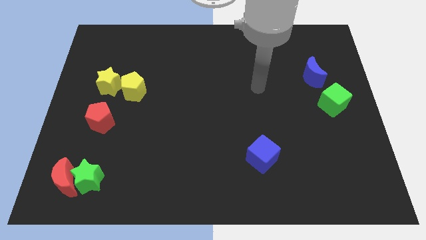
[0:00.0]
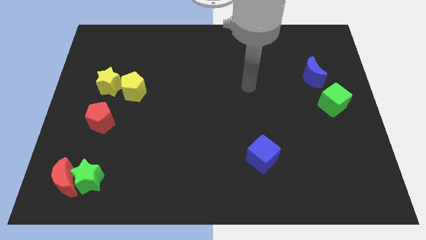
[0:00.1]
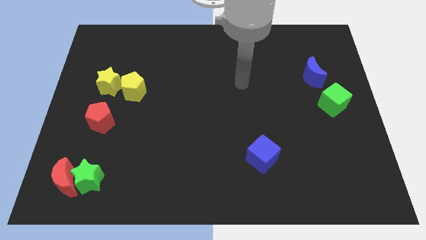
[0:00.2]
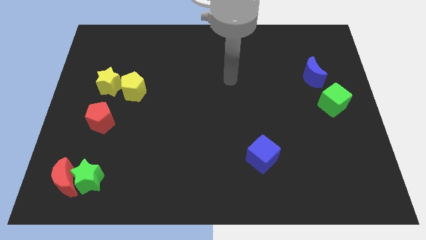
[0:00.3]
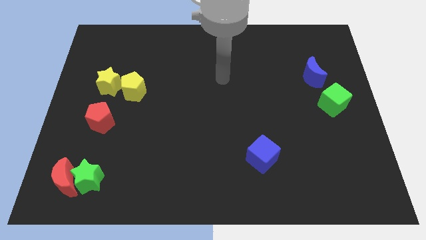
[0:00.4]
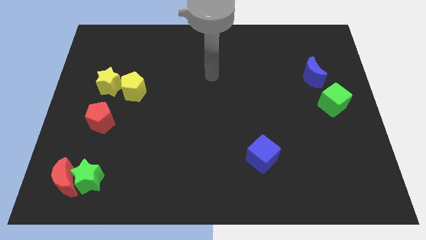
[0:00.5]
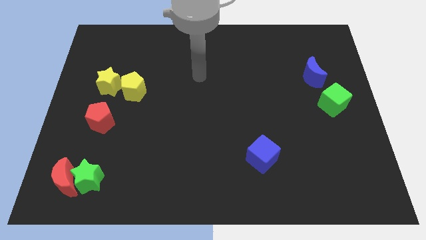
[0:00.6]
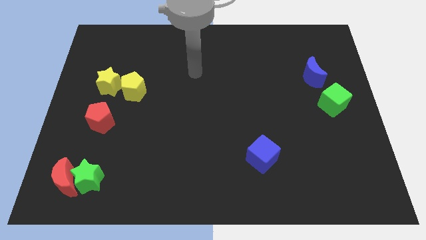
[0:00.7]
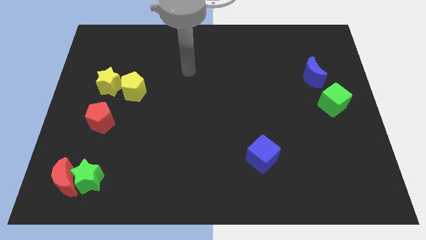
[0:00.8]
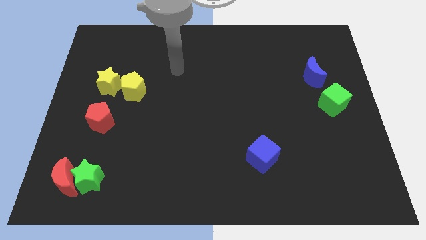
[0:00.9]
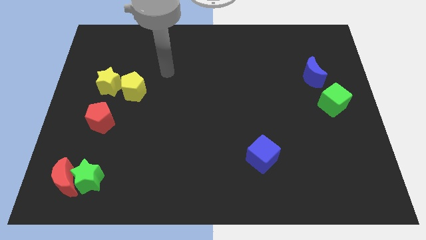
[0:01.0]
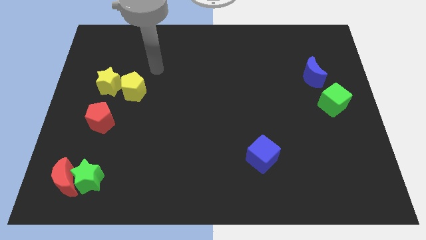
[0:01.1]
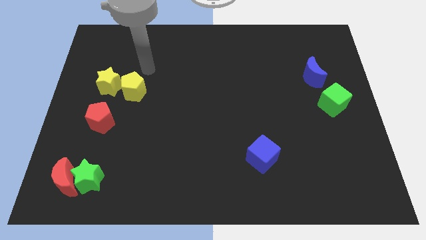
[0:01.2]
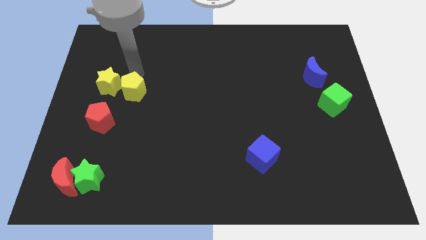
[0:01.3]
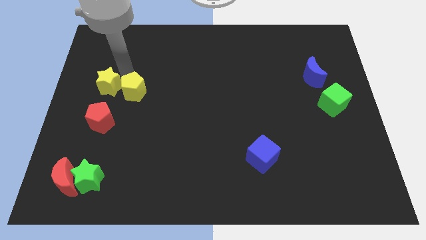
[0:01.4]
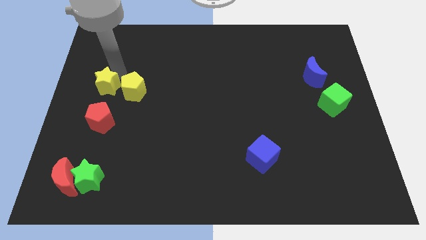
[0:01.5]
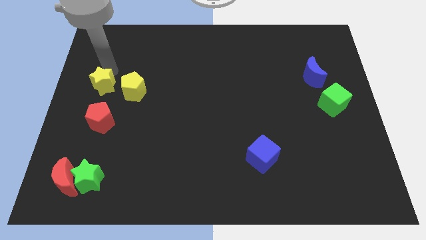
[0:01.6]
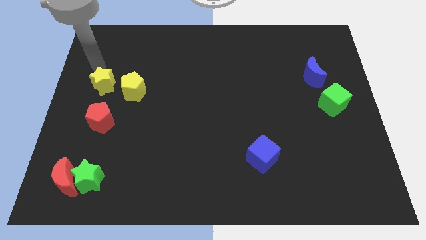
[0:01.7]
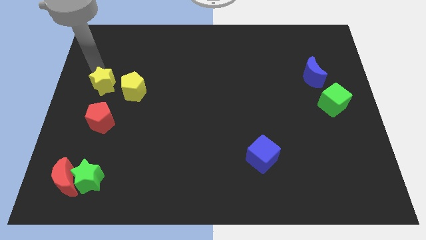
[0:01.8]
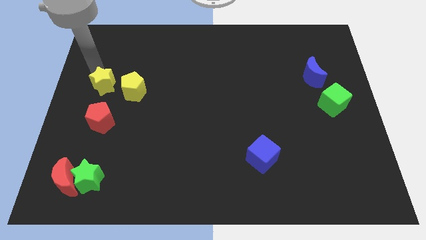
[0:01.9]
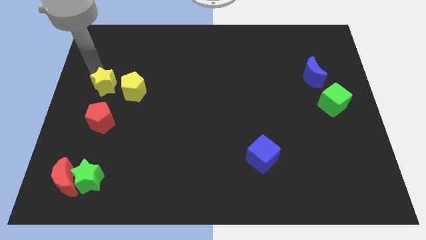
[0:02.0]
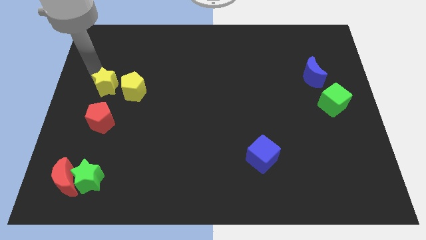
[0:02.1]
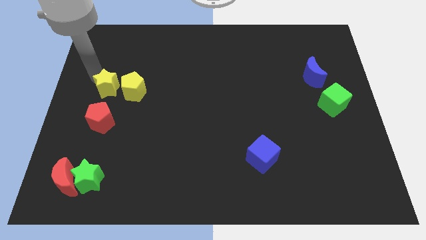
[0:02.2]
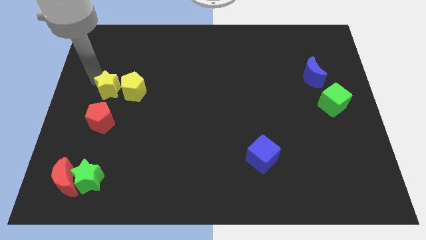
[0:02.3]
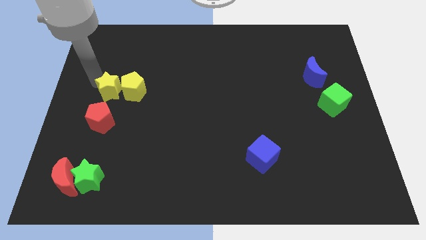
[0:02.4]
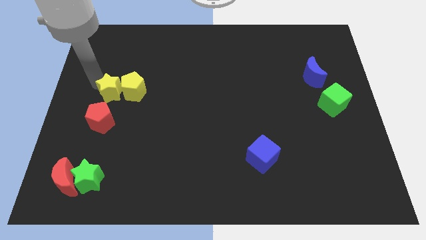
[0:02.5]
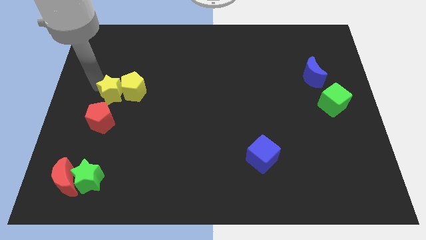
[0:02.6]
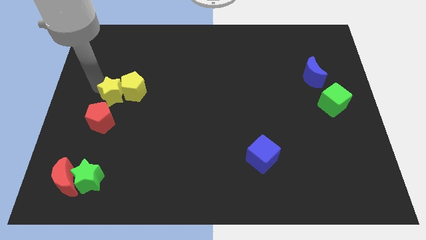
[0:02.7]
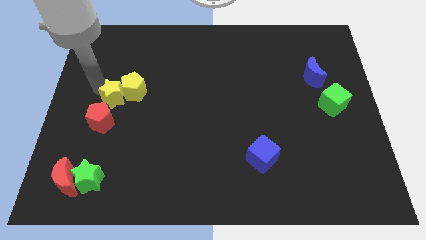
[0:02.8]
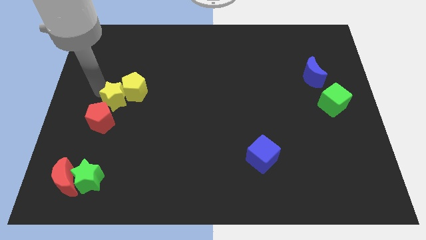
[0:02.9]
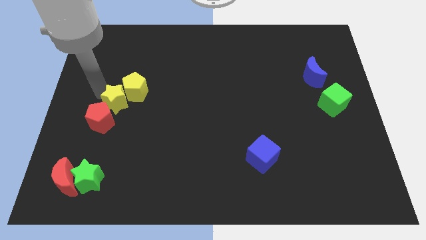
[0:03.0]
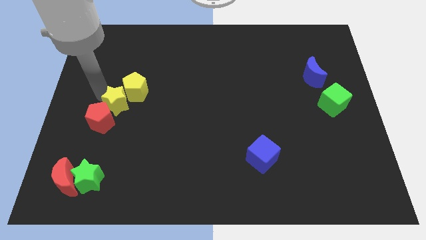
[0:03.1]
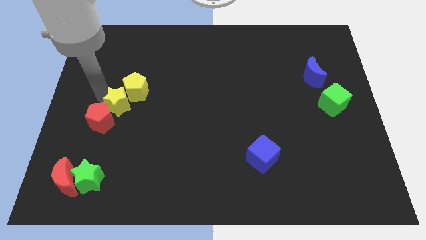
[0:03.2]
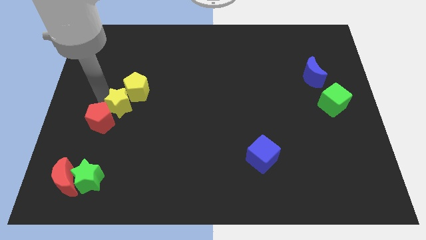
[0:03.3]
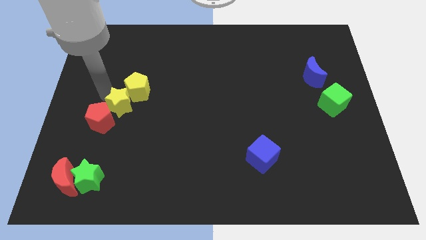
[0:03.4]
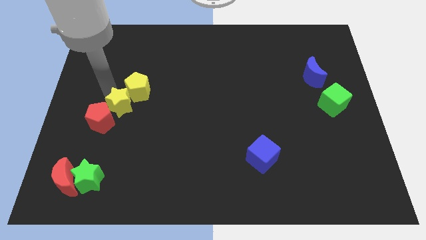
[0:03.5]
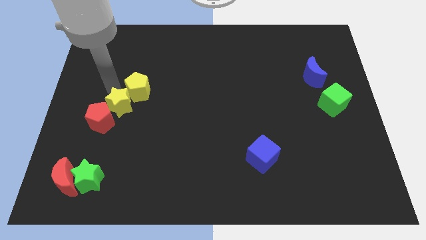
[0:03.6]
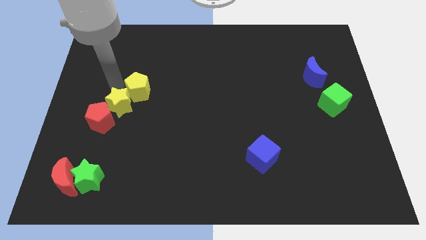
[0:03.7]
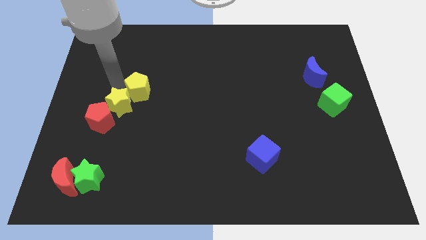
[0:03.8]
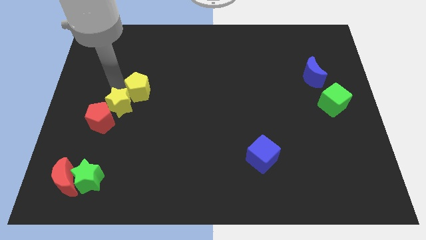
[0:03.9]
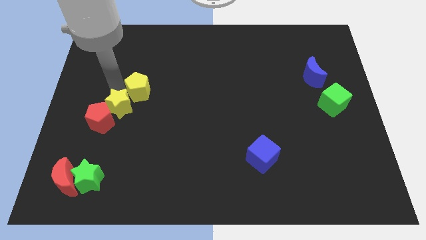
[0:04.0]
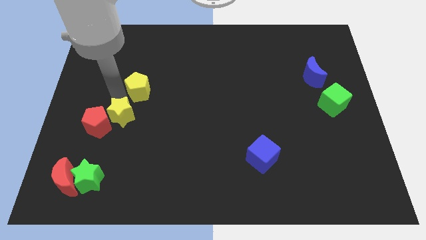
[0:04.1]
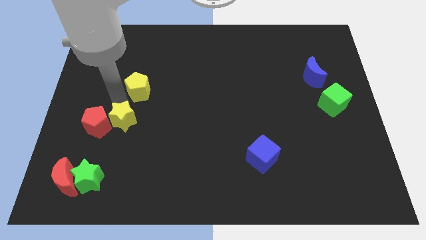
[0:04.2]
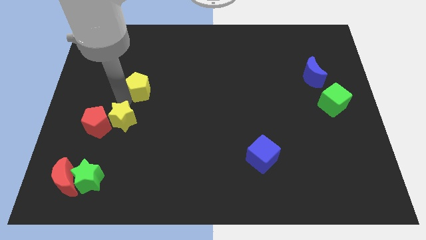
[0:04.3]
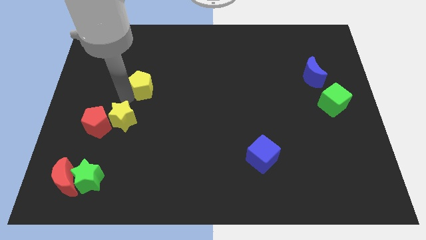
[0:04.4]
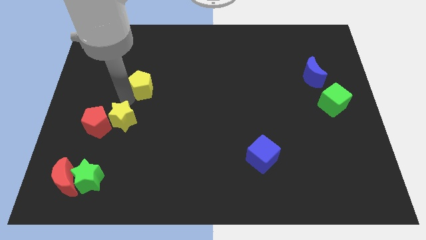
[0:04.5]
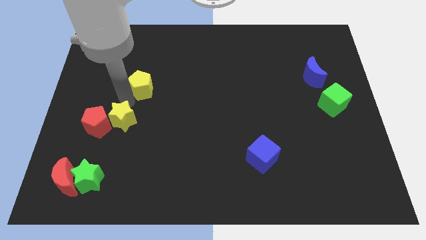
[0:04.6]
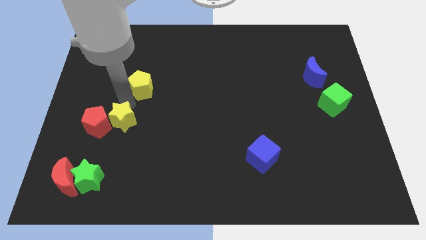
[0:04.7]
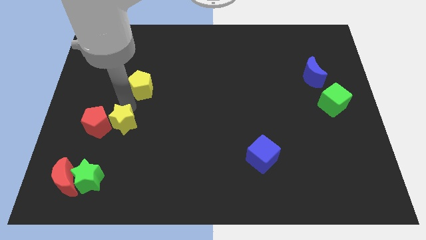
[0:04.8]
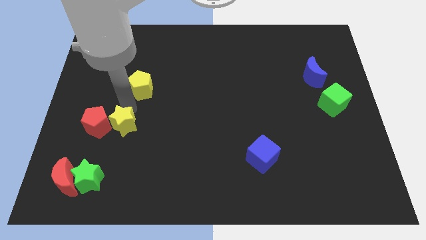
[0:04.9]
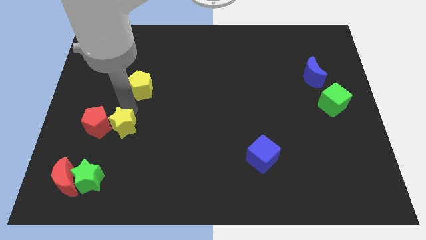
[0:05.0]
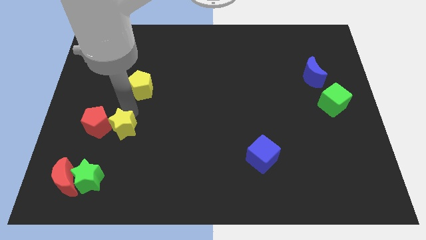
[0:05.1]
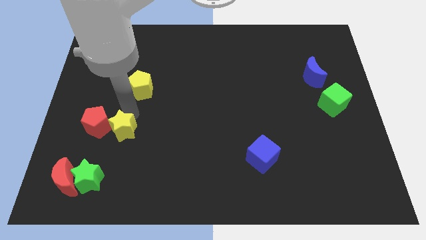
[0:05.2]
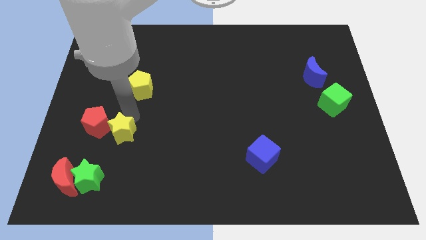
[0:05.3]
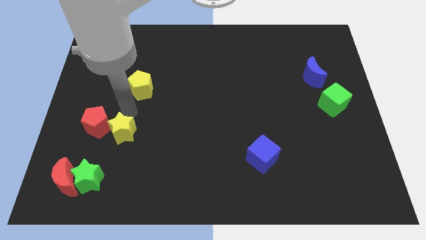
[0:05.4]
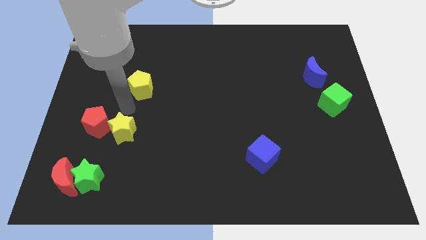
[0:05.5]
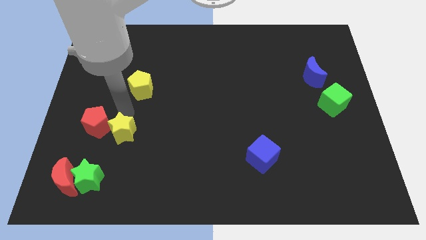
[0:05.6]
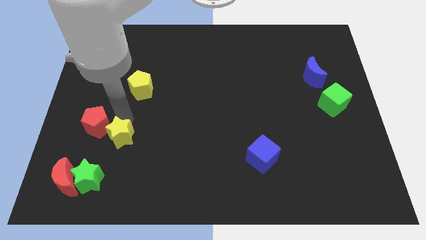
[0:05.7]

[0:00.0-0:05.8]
slide the yellow star diagonally up and to the right of the green star
